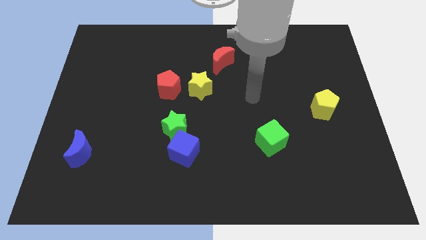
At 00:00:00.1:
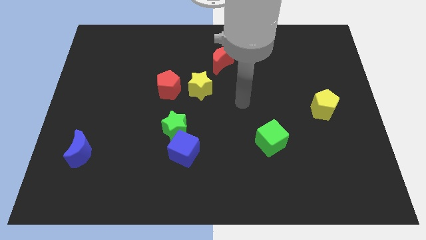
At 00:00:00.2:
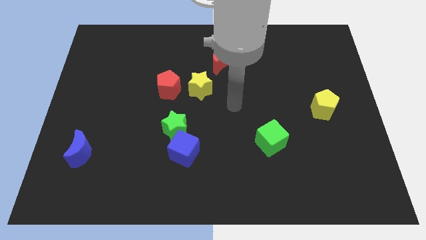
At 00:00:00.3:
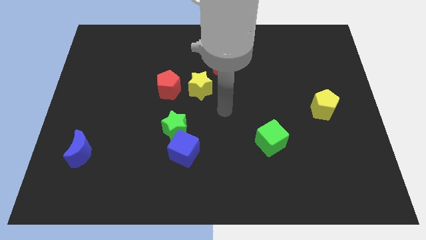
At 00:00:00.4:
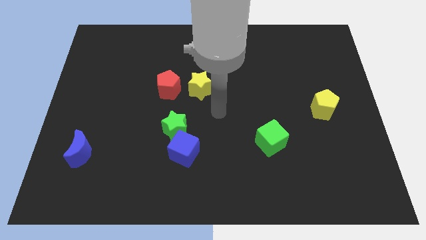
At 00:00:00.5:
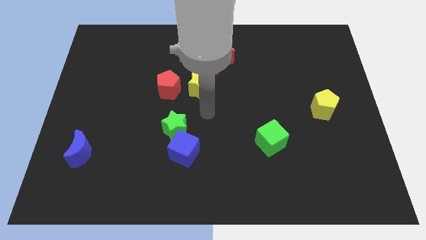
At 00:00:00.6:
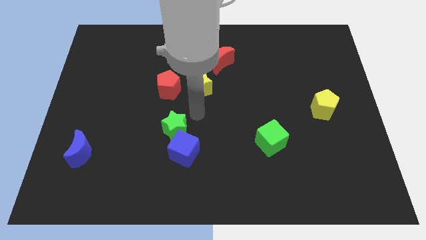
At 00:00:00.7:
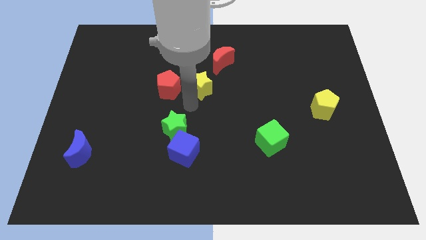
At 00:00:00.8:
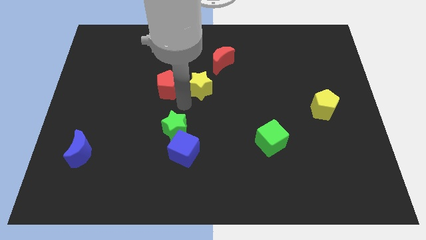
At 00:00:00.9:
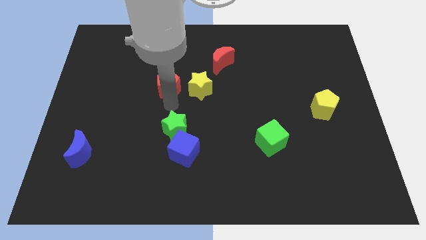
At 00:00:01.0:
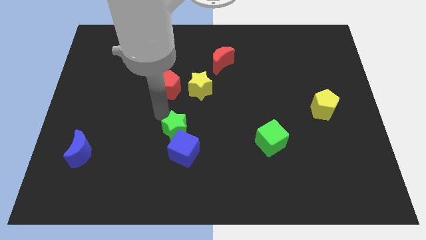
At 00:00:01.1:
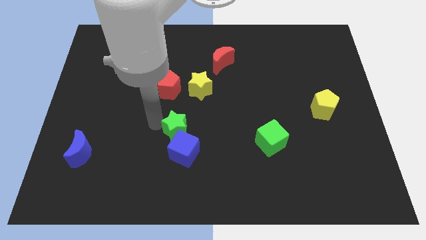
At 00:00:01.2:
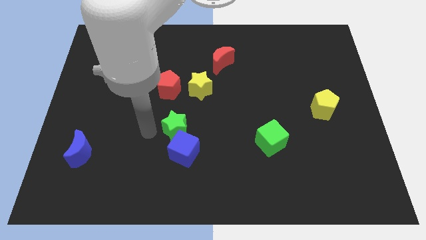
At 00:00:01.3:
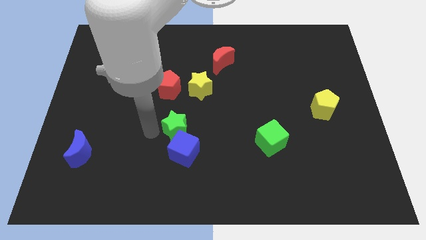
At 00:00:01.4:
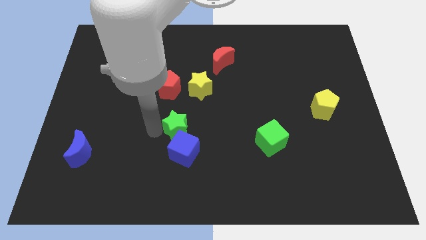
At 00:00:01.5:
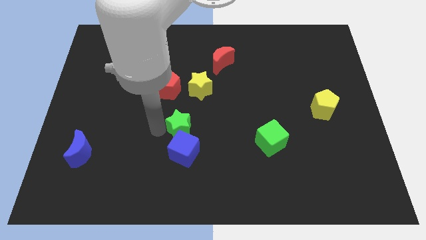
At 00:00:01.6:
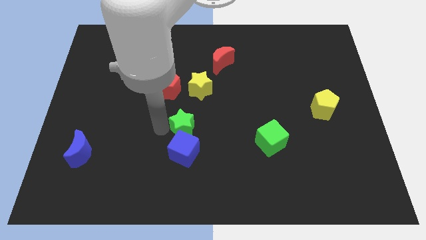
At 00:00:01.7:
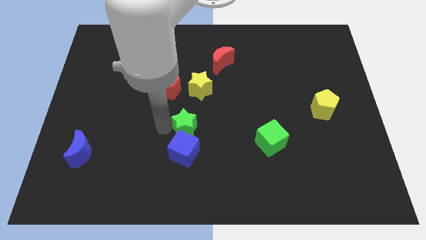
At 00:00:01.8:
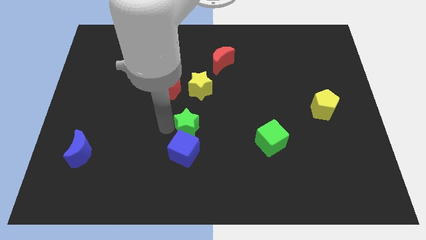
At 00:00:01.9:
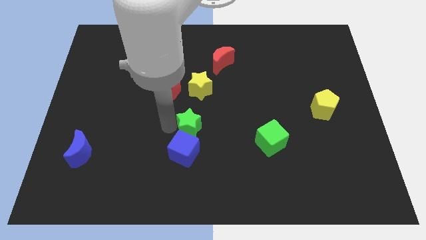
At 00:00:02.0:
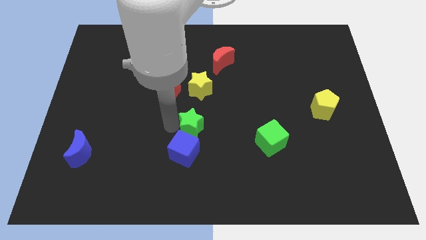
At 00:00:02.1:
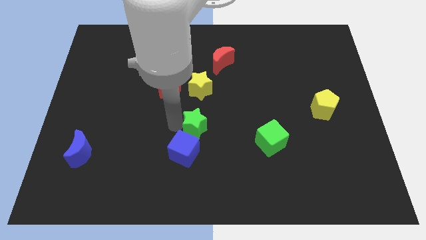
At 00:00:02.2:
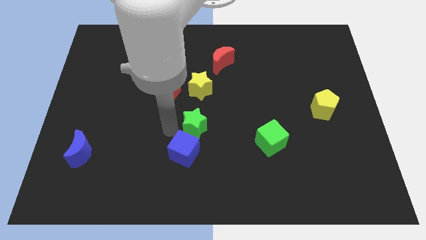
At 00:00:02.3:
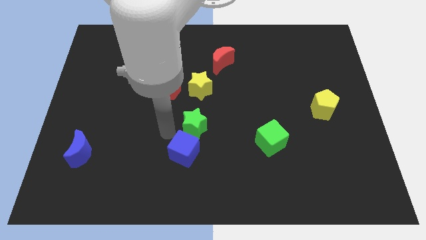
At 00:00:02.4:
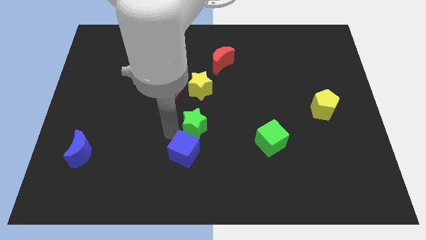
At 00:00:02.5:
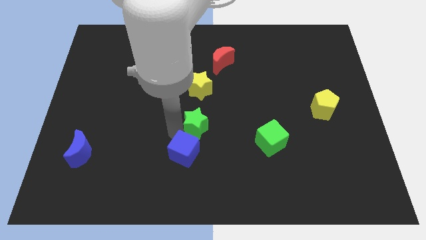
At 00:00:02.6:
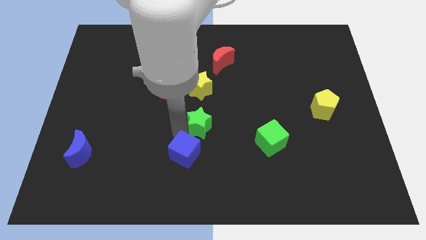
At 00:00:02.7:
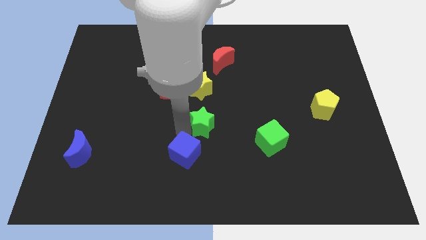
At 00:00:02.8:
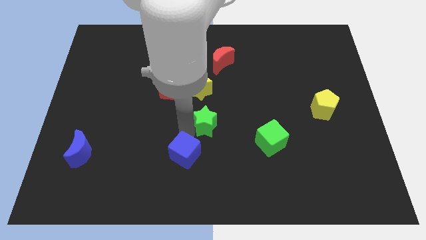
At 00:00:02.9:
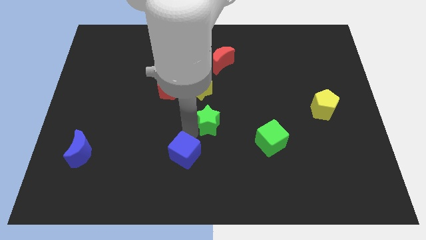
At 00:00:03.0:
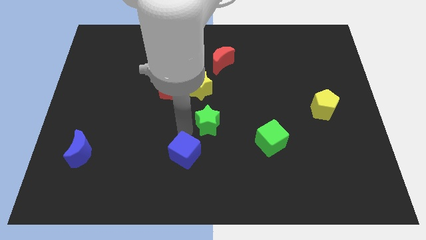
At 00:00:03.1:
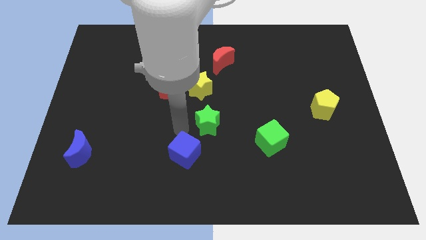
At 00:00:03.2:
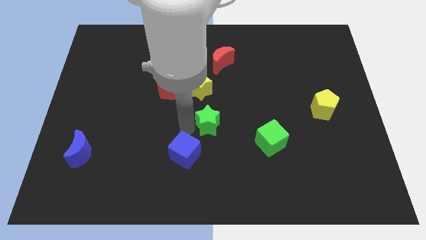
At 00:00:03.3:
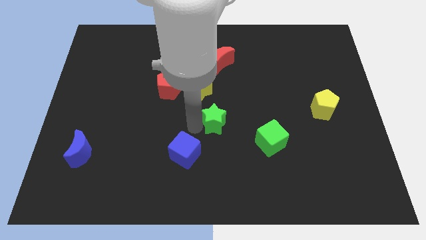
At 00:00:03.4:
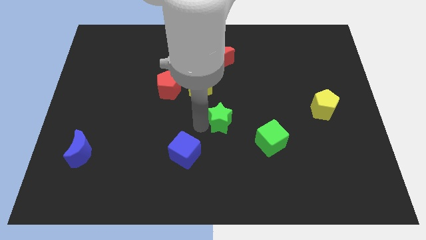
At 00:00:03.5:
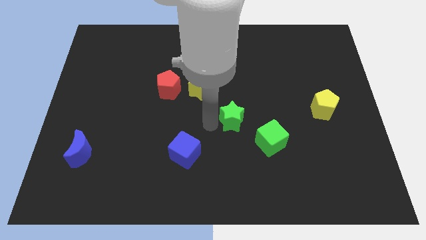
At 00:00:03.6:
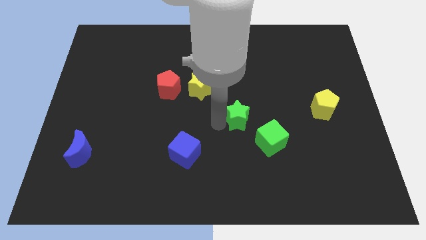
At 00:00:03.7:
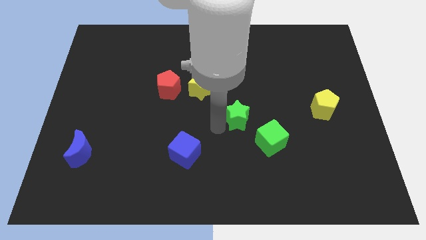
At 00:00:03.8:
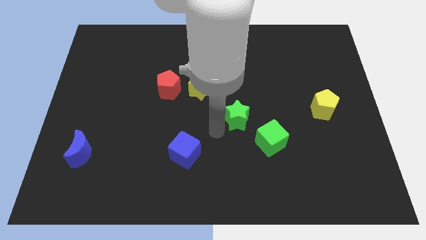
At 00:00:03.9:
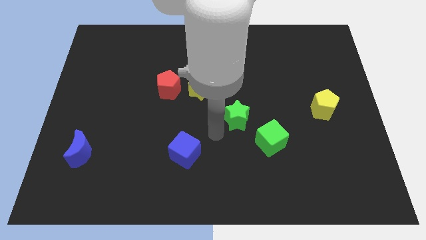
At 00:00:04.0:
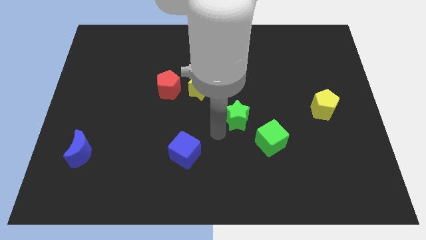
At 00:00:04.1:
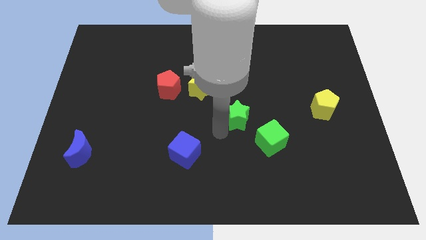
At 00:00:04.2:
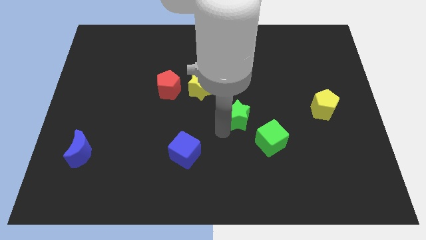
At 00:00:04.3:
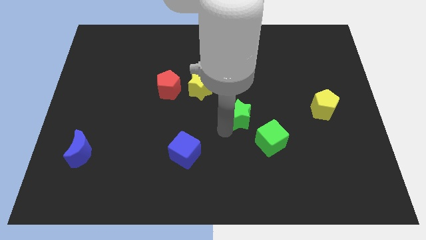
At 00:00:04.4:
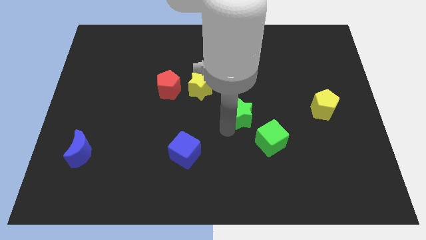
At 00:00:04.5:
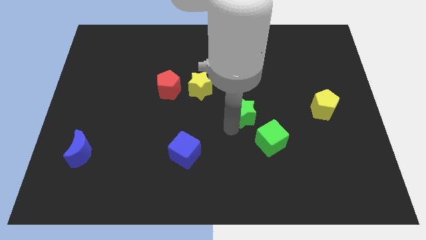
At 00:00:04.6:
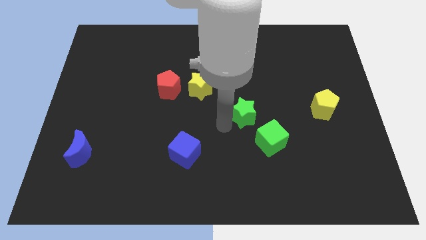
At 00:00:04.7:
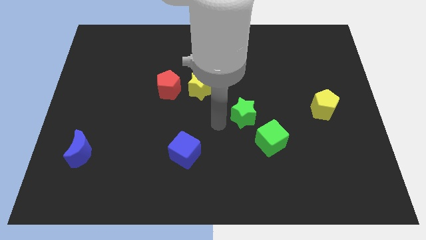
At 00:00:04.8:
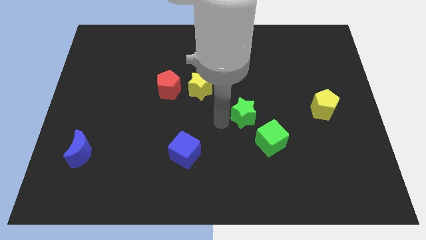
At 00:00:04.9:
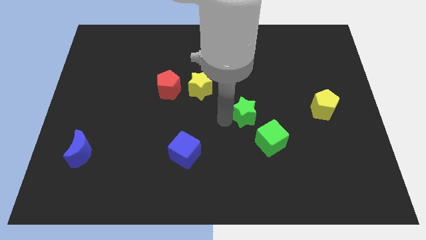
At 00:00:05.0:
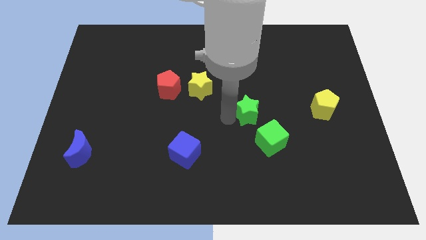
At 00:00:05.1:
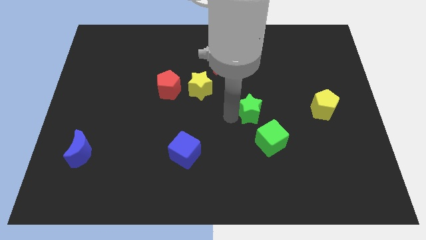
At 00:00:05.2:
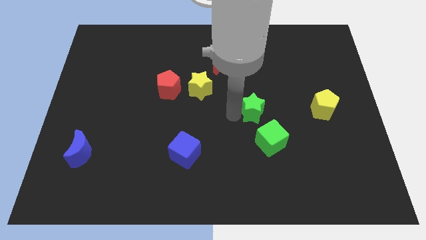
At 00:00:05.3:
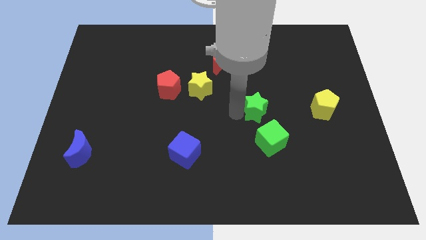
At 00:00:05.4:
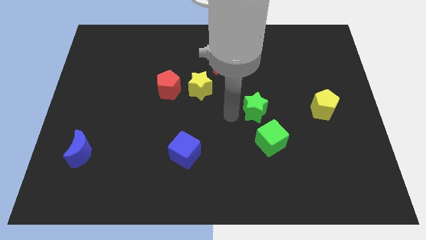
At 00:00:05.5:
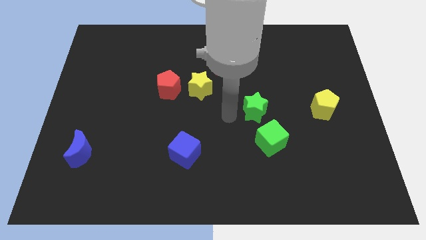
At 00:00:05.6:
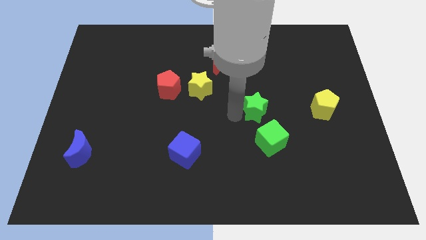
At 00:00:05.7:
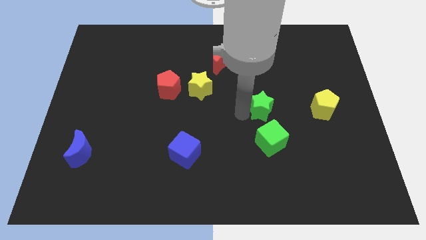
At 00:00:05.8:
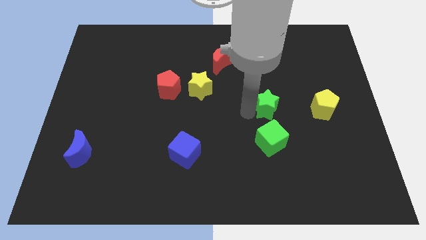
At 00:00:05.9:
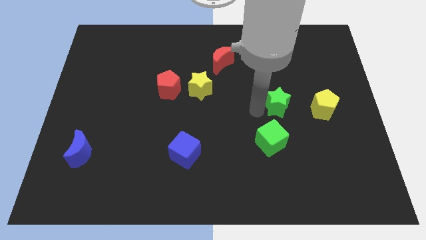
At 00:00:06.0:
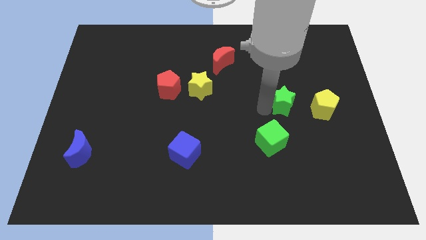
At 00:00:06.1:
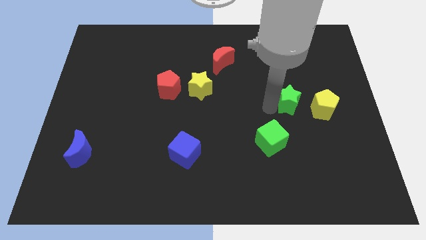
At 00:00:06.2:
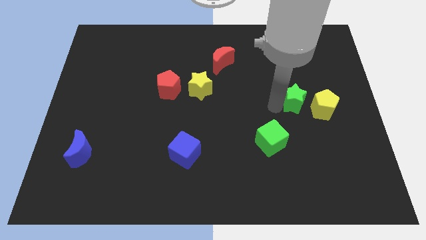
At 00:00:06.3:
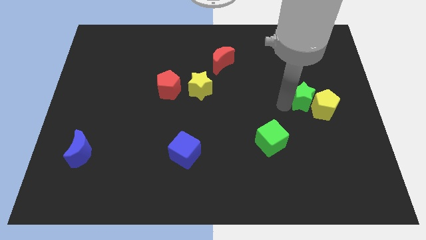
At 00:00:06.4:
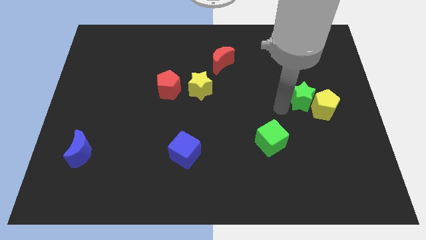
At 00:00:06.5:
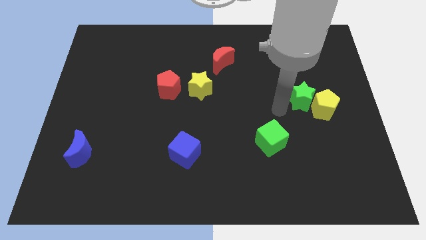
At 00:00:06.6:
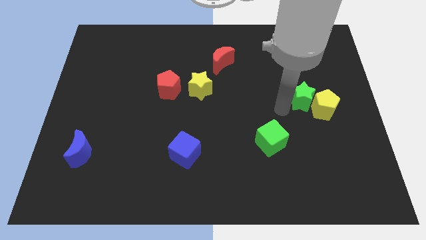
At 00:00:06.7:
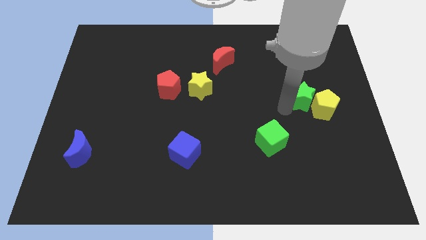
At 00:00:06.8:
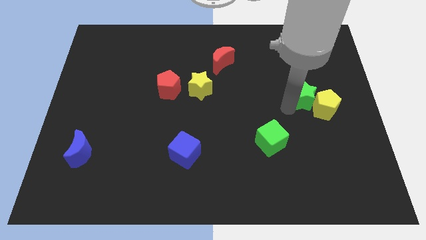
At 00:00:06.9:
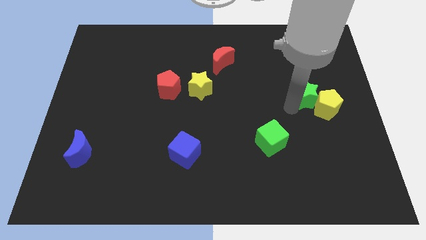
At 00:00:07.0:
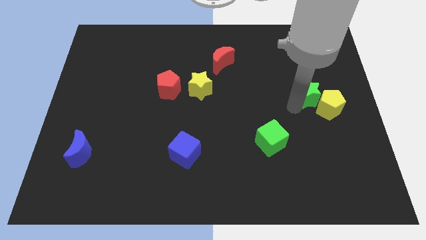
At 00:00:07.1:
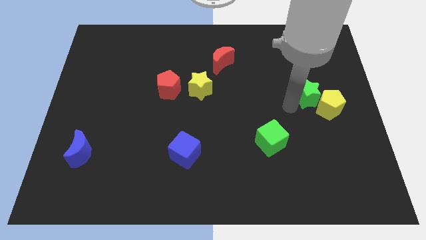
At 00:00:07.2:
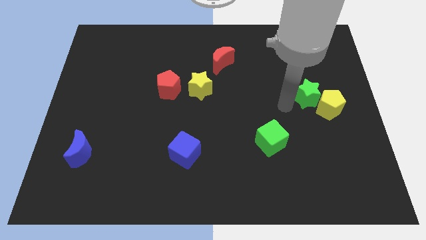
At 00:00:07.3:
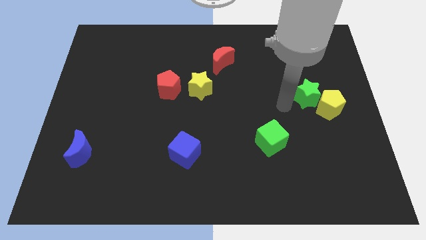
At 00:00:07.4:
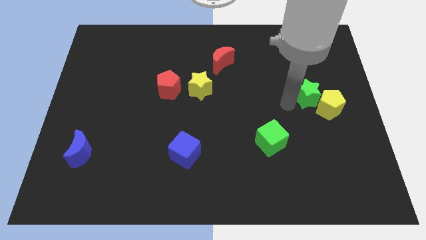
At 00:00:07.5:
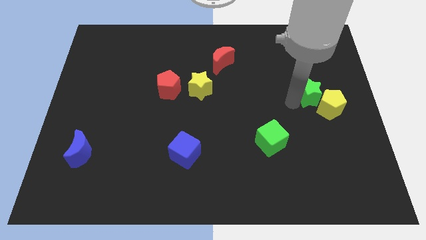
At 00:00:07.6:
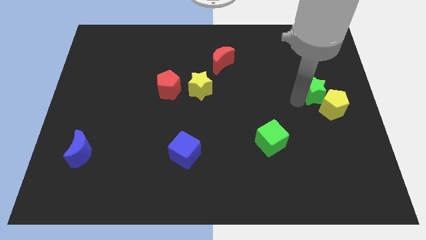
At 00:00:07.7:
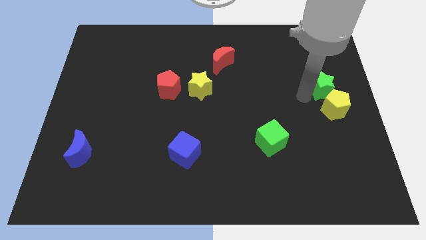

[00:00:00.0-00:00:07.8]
push the green star to the center right
